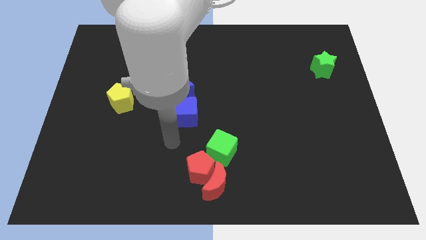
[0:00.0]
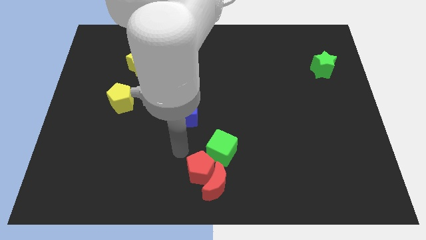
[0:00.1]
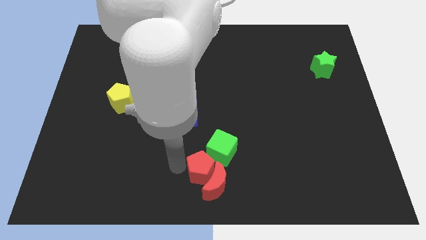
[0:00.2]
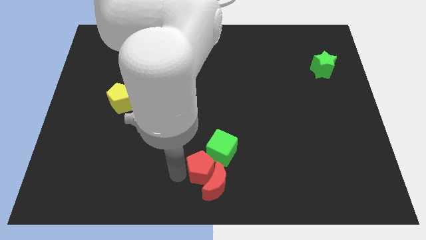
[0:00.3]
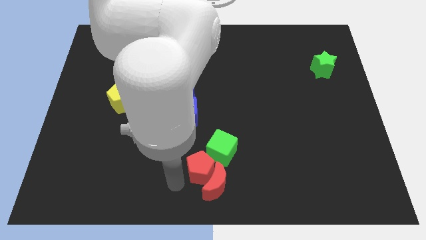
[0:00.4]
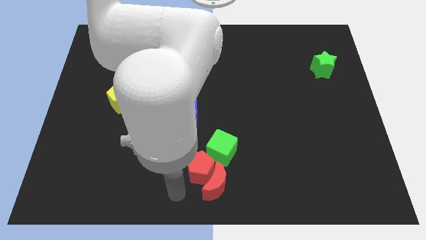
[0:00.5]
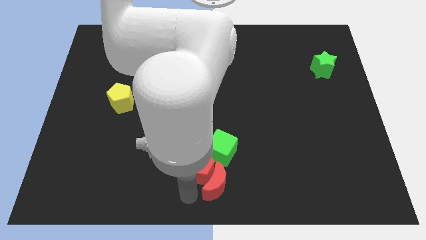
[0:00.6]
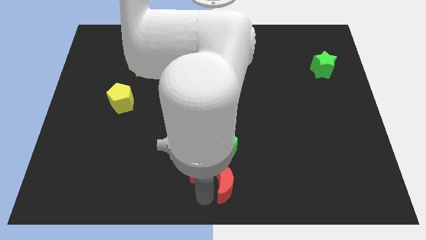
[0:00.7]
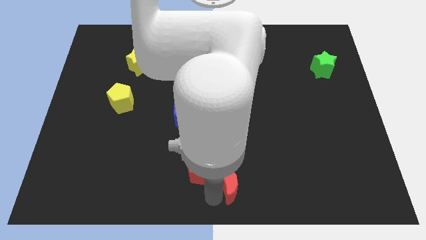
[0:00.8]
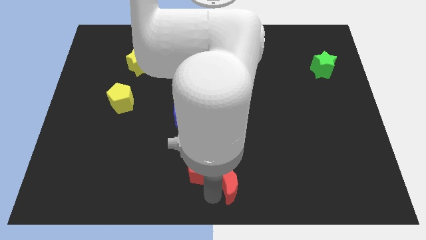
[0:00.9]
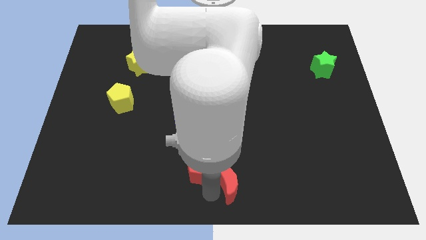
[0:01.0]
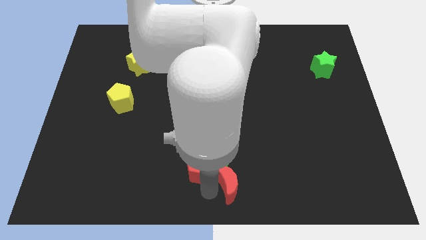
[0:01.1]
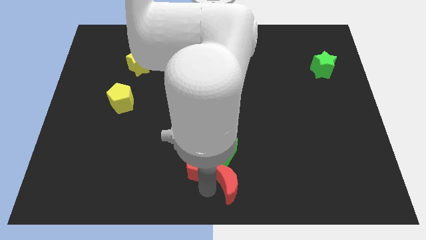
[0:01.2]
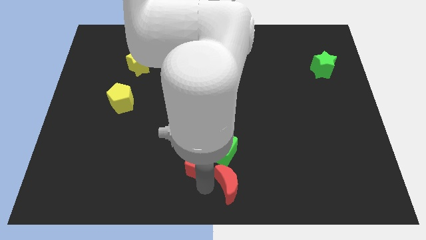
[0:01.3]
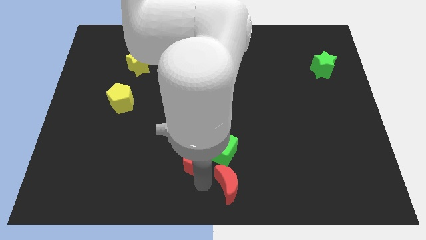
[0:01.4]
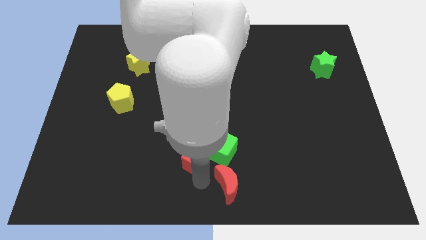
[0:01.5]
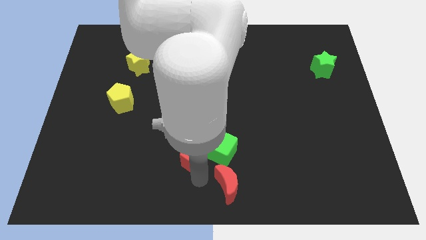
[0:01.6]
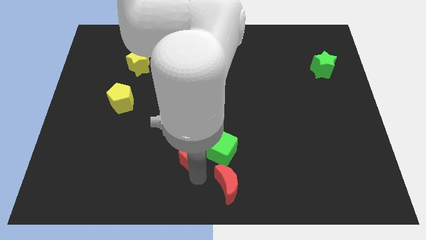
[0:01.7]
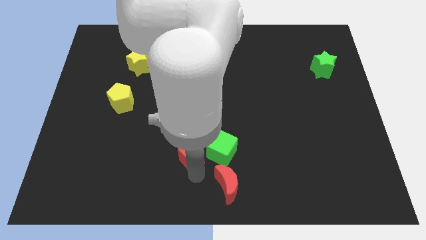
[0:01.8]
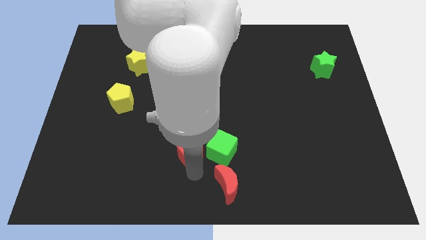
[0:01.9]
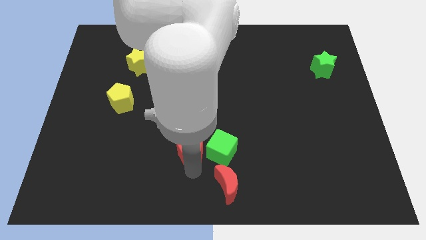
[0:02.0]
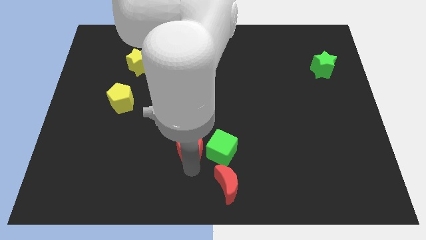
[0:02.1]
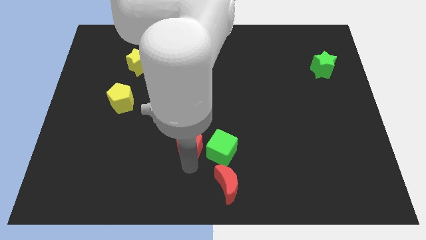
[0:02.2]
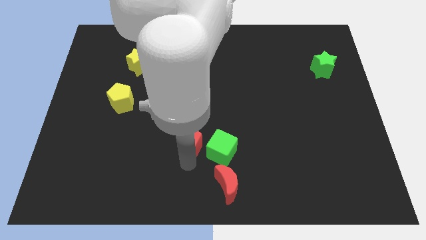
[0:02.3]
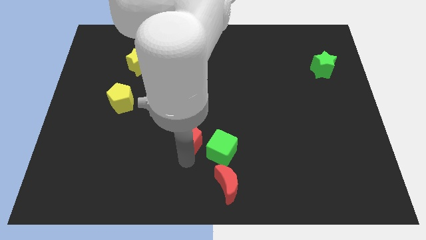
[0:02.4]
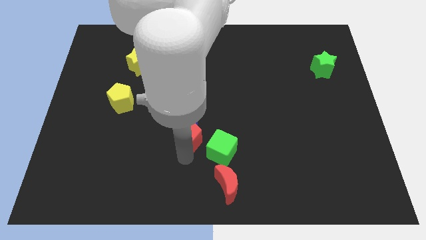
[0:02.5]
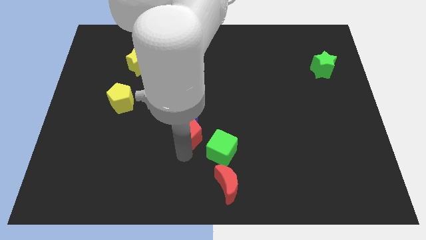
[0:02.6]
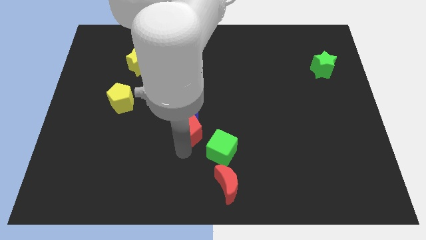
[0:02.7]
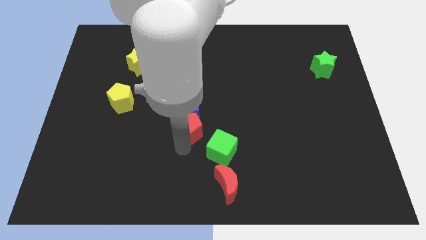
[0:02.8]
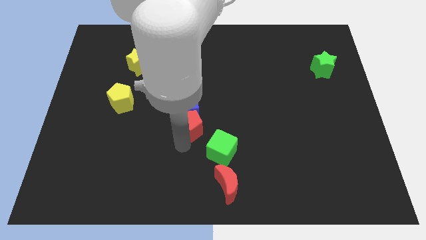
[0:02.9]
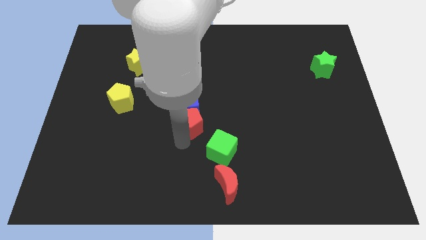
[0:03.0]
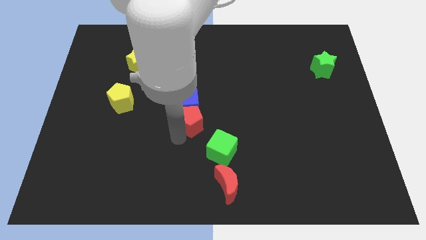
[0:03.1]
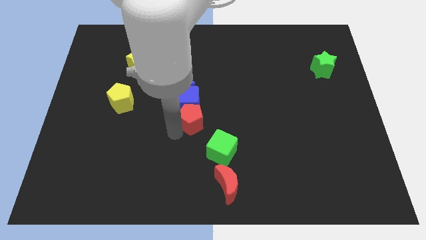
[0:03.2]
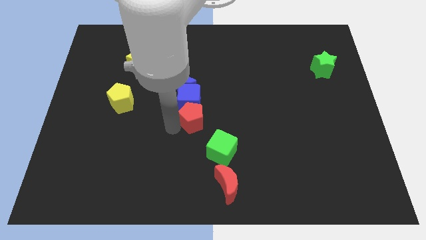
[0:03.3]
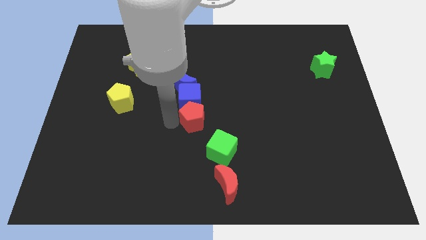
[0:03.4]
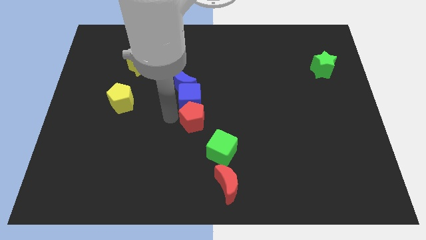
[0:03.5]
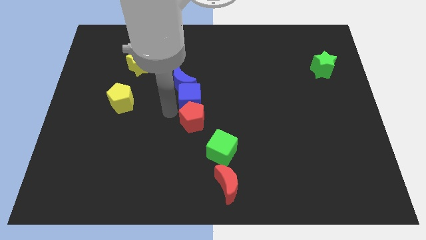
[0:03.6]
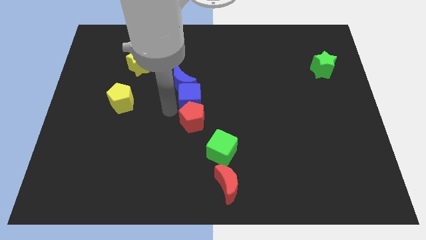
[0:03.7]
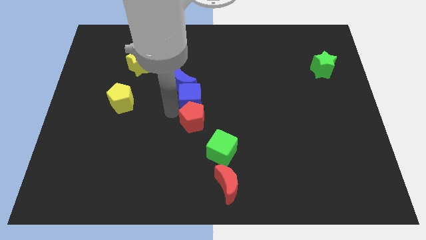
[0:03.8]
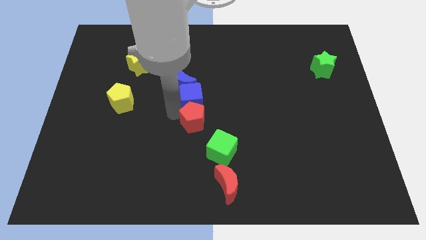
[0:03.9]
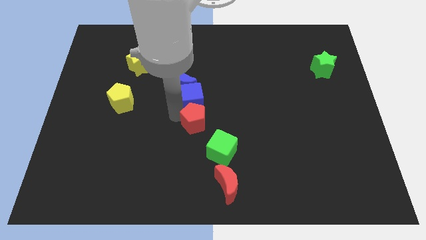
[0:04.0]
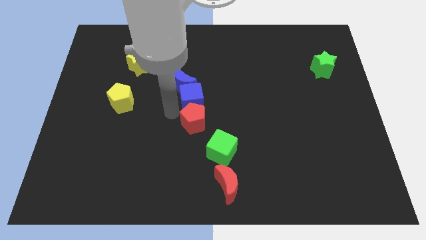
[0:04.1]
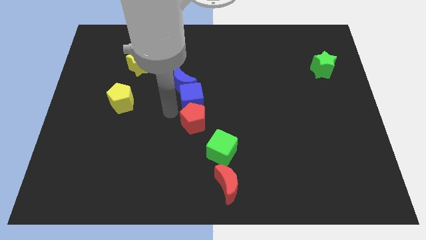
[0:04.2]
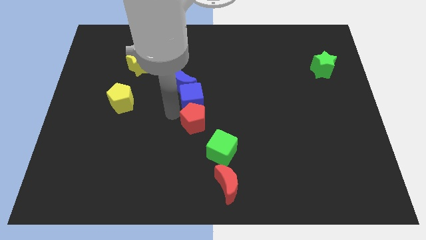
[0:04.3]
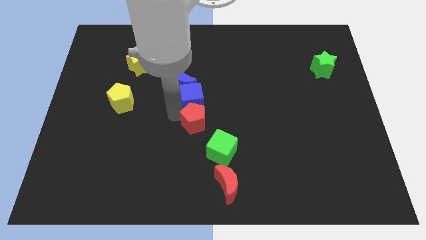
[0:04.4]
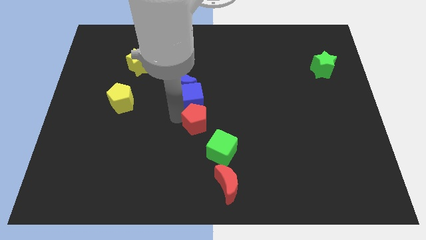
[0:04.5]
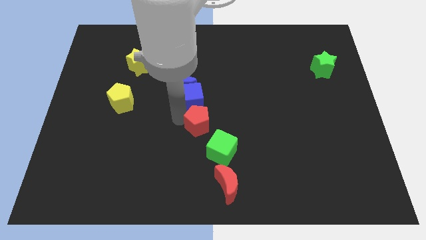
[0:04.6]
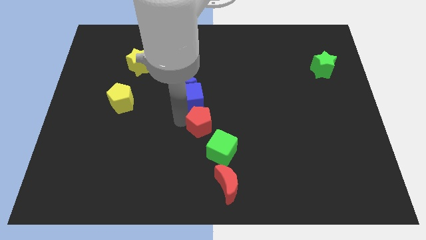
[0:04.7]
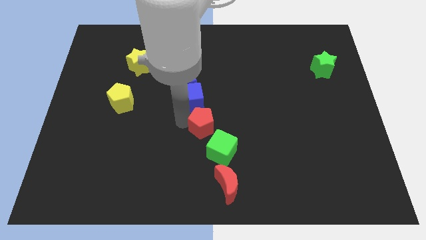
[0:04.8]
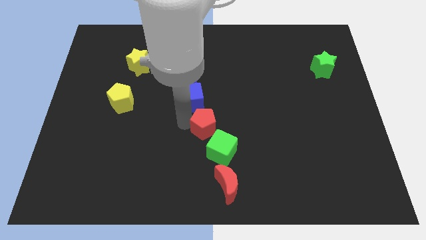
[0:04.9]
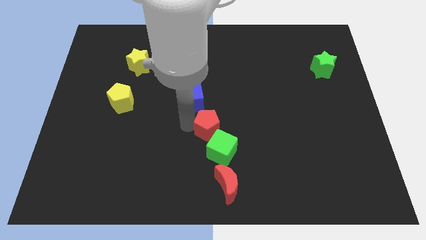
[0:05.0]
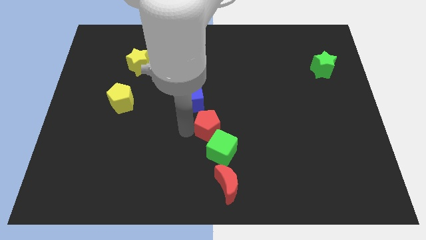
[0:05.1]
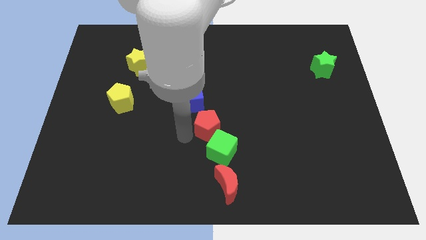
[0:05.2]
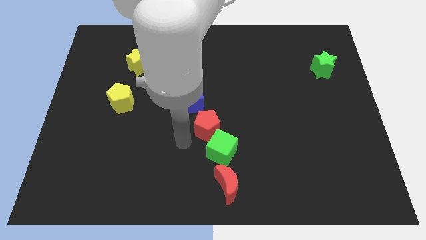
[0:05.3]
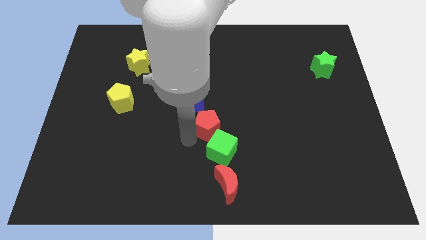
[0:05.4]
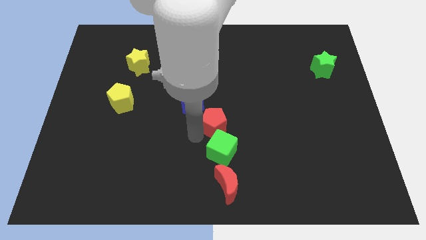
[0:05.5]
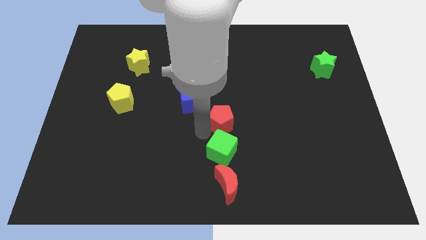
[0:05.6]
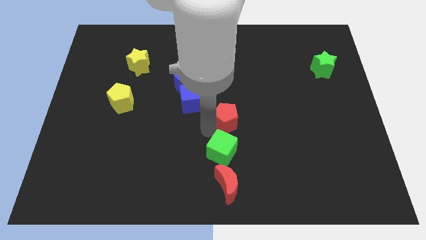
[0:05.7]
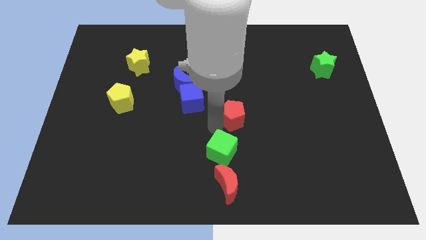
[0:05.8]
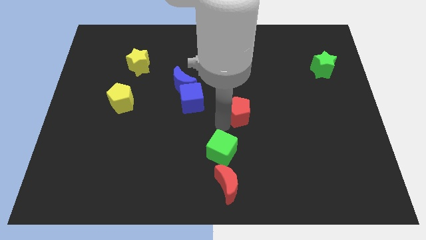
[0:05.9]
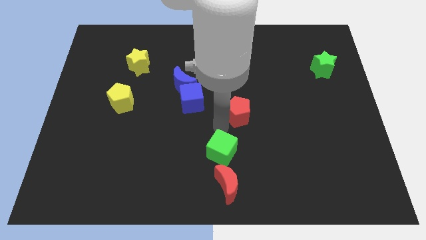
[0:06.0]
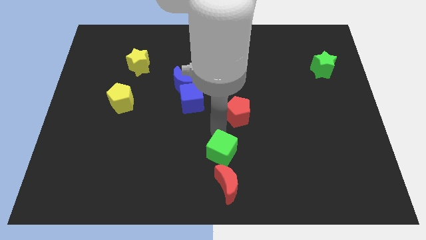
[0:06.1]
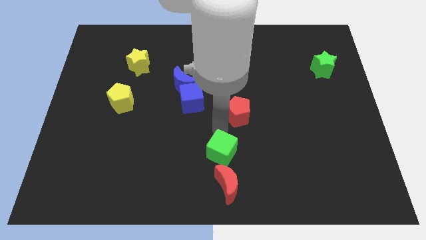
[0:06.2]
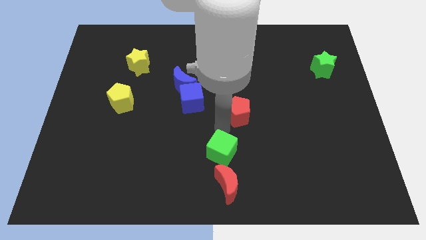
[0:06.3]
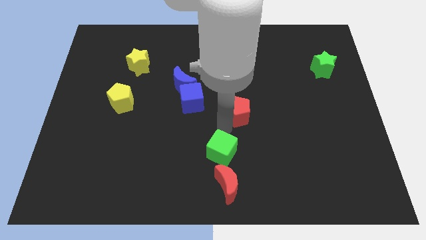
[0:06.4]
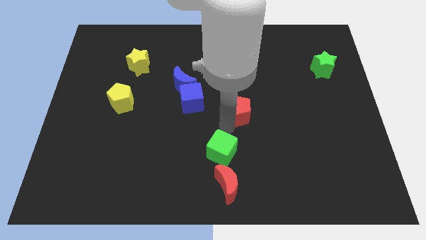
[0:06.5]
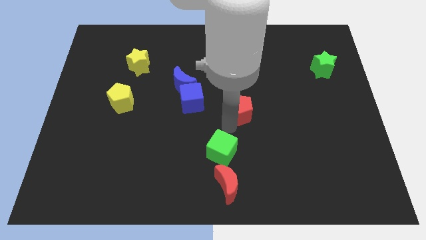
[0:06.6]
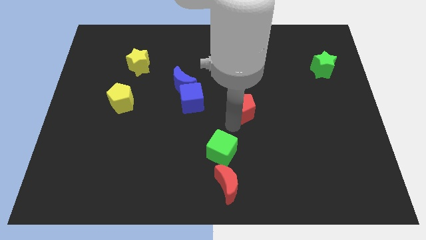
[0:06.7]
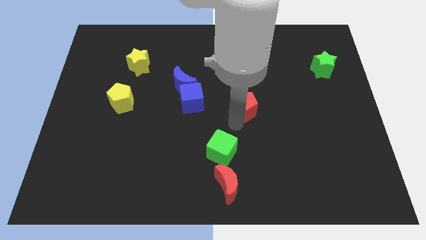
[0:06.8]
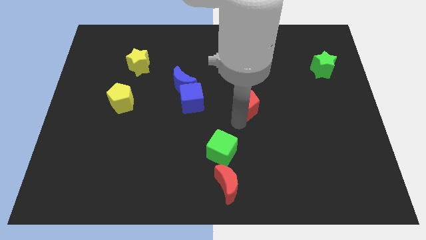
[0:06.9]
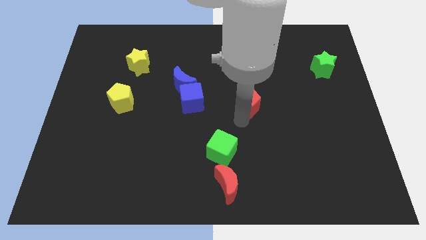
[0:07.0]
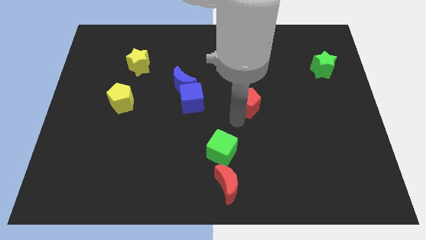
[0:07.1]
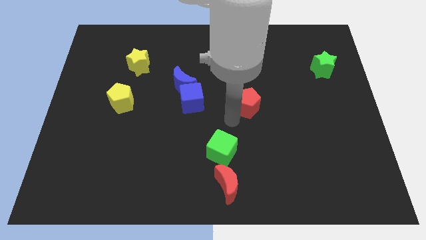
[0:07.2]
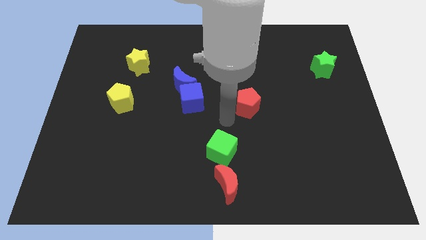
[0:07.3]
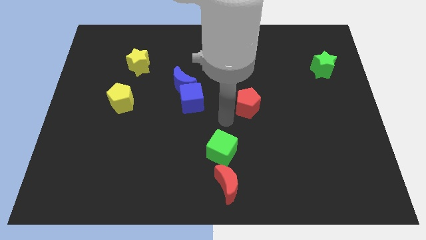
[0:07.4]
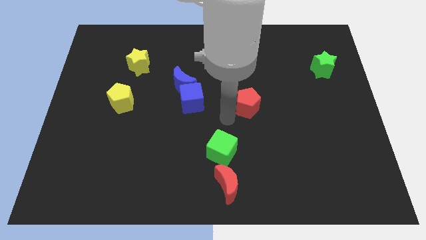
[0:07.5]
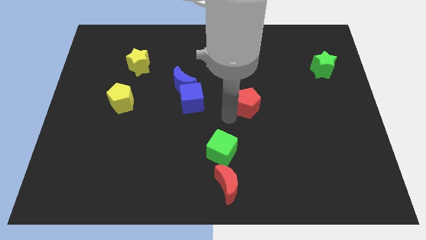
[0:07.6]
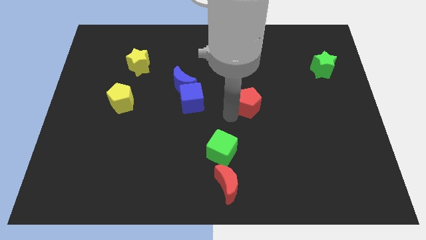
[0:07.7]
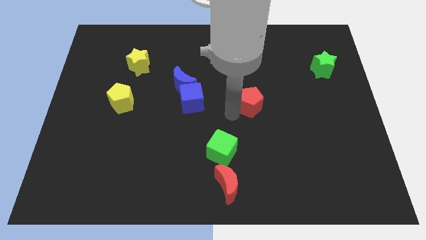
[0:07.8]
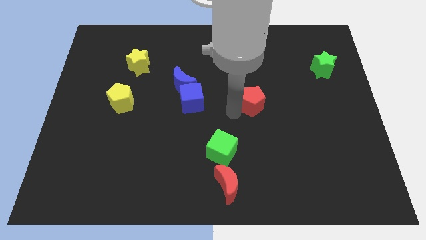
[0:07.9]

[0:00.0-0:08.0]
slide the red pentagon diagonally up and to the right

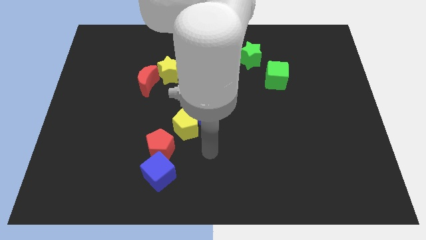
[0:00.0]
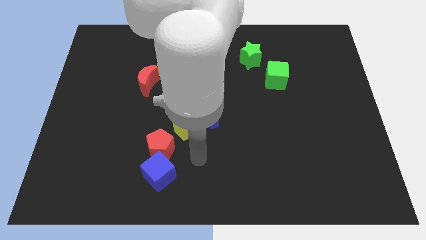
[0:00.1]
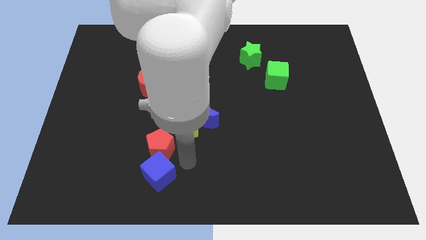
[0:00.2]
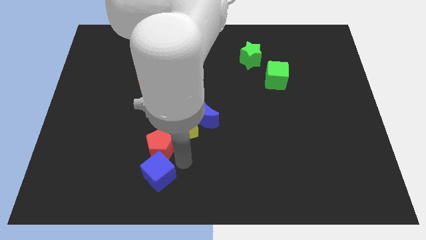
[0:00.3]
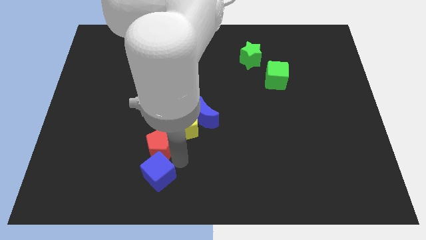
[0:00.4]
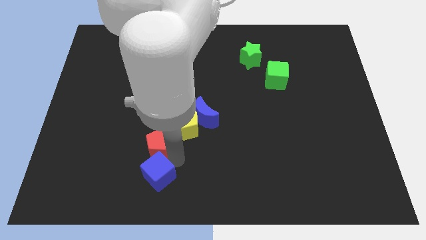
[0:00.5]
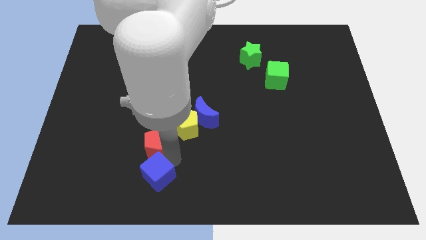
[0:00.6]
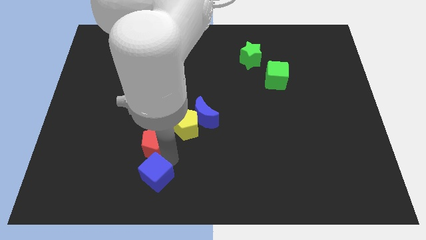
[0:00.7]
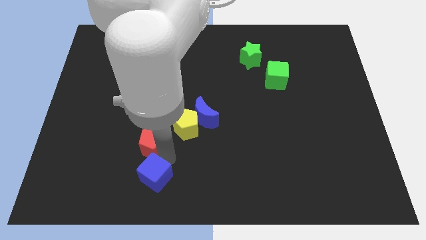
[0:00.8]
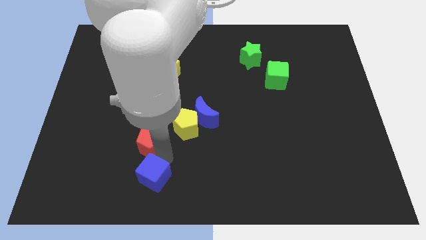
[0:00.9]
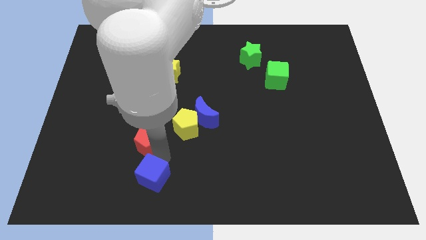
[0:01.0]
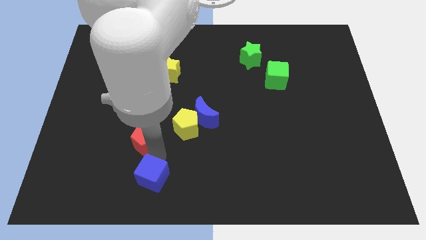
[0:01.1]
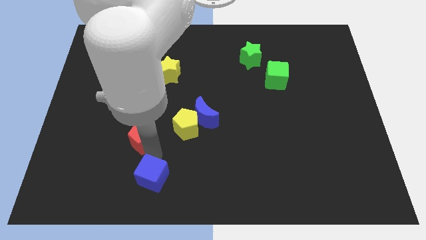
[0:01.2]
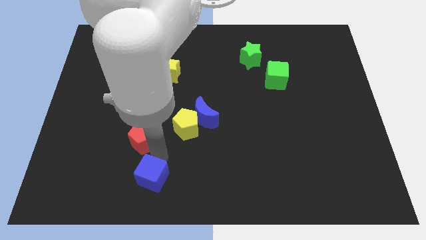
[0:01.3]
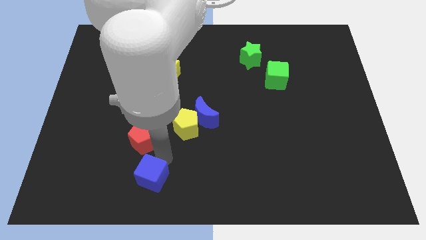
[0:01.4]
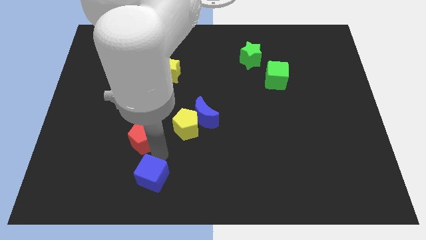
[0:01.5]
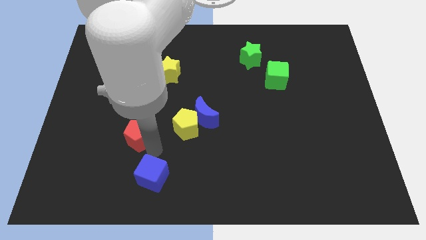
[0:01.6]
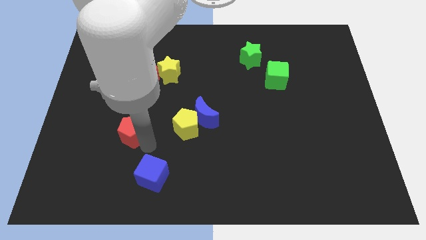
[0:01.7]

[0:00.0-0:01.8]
slightly slide the red pentagon diagonally up and left
